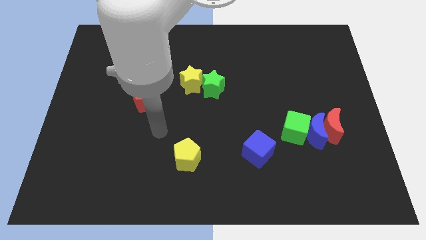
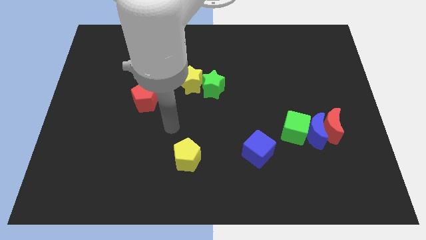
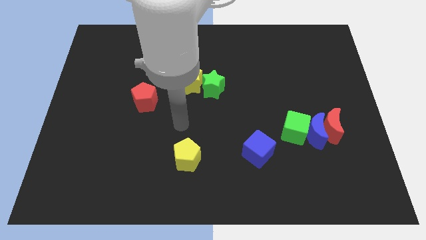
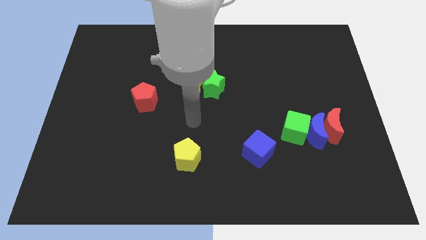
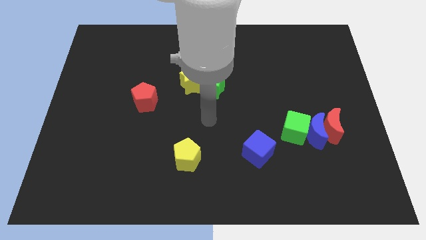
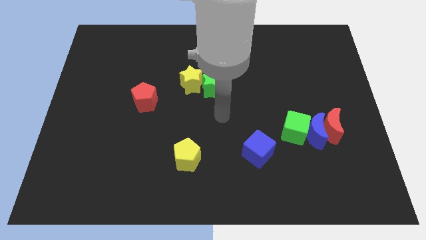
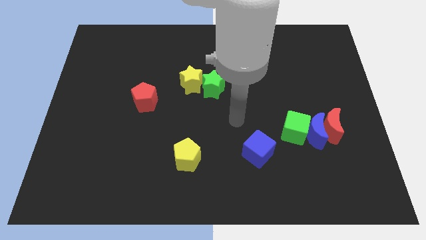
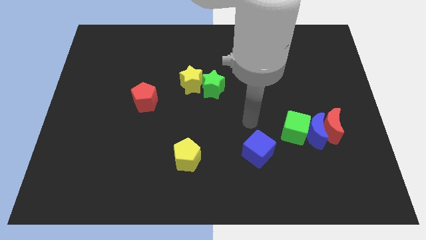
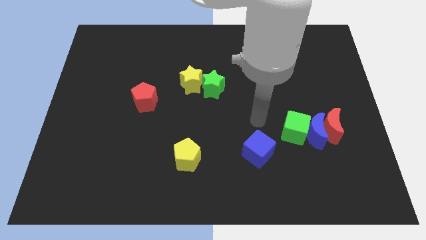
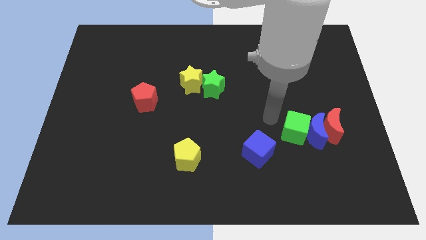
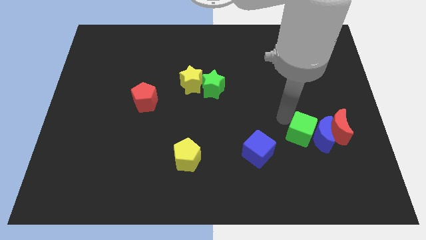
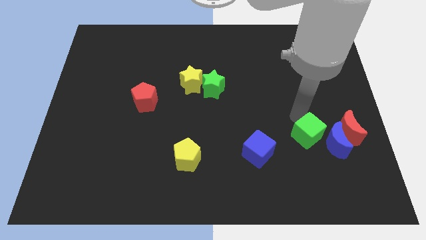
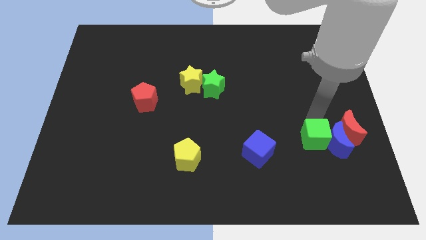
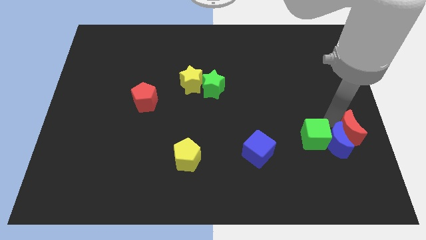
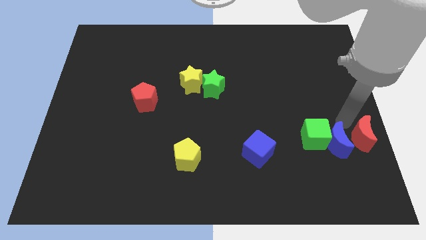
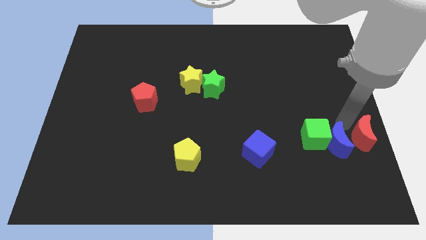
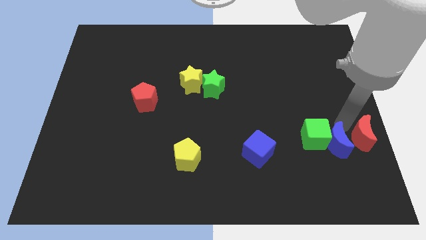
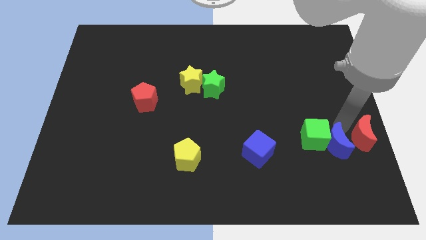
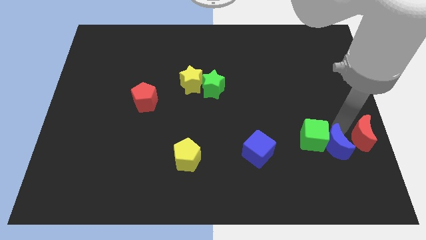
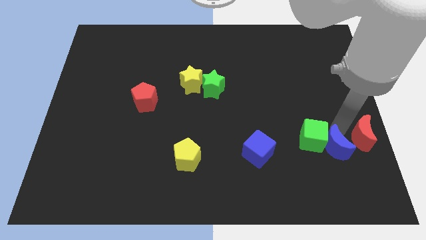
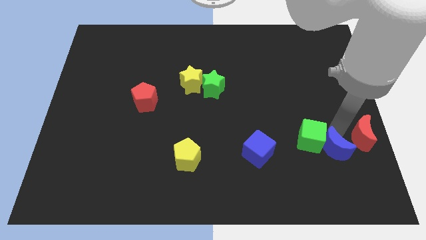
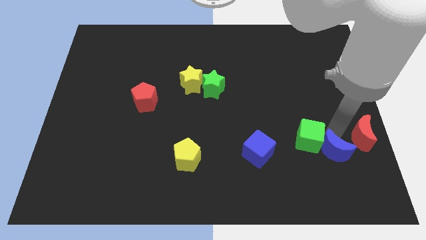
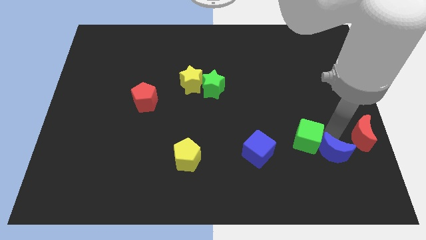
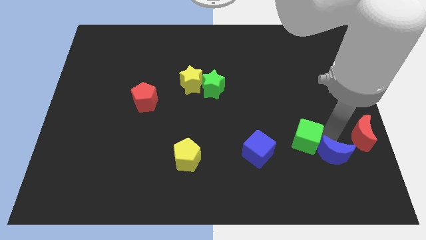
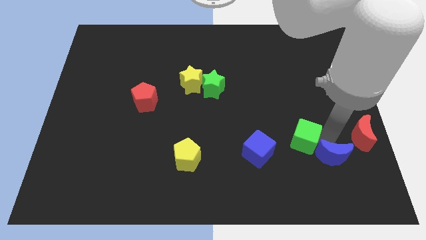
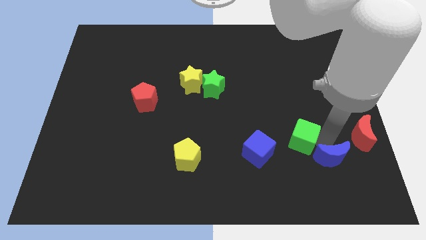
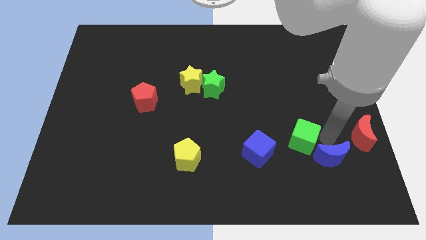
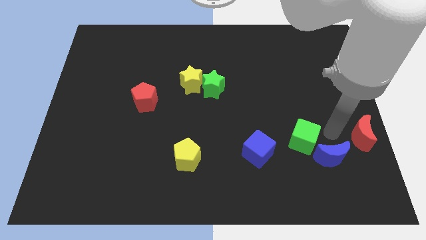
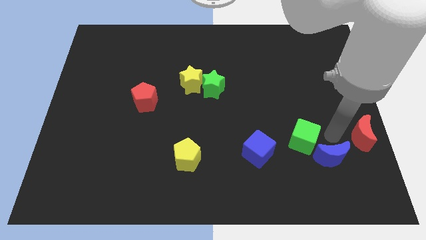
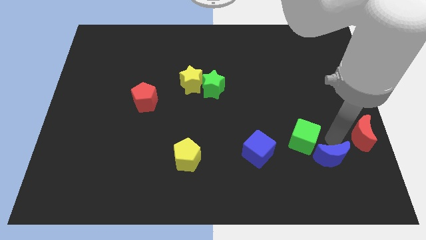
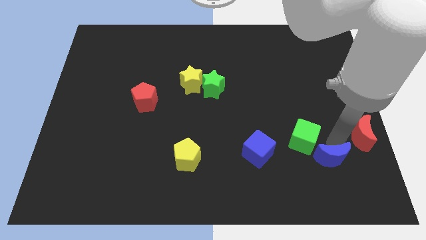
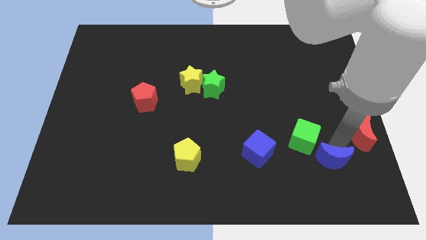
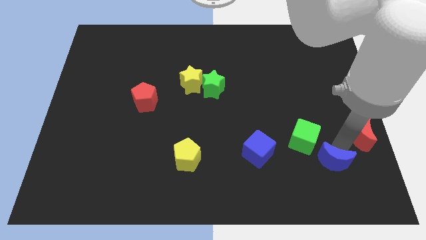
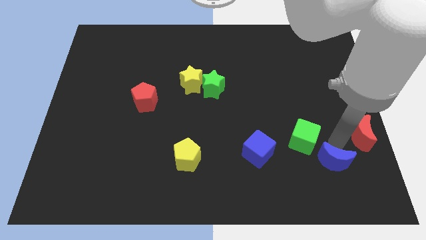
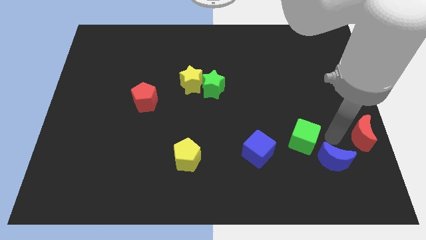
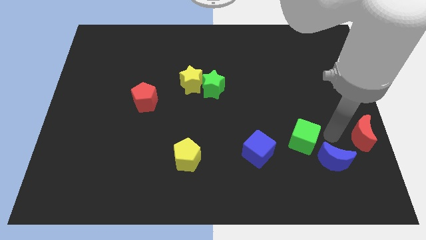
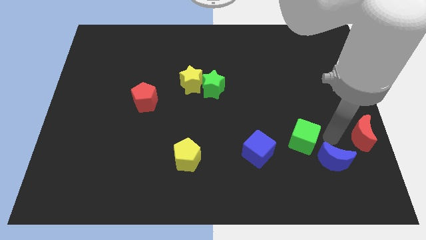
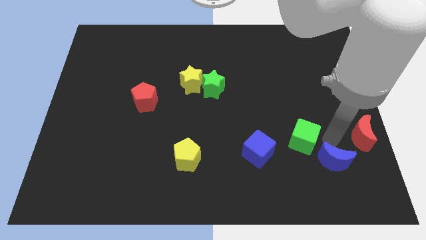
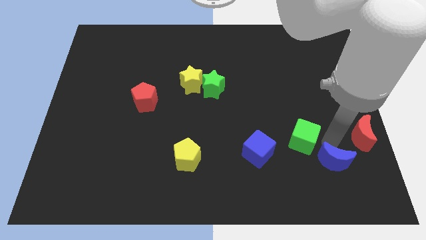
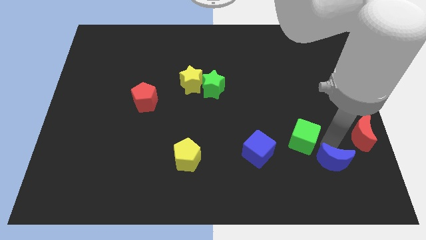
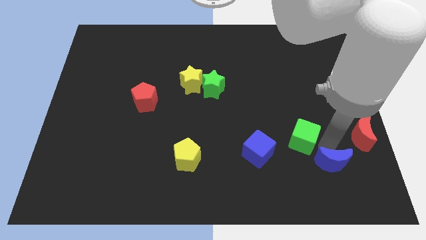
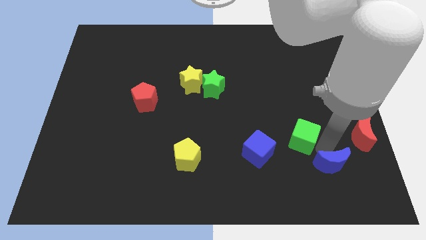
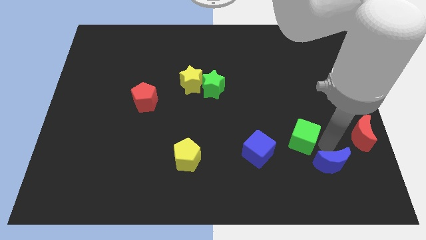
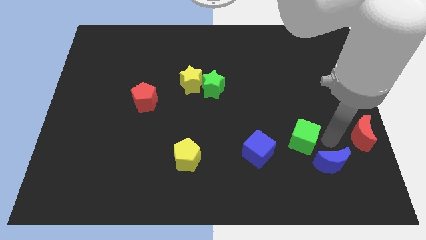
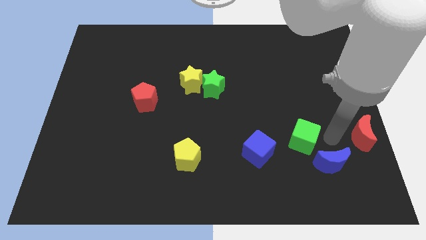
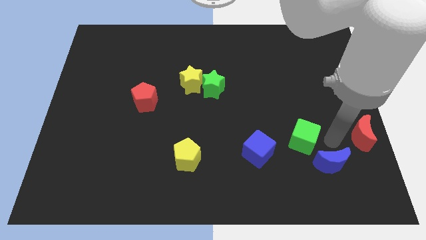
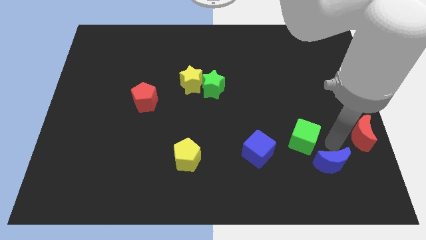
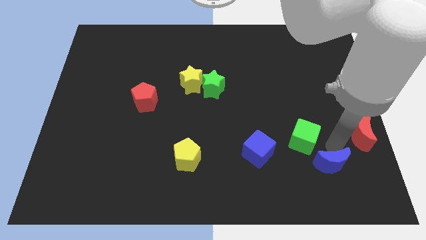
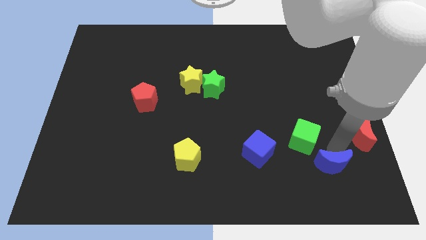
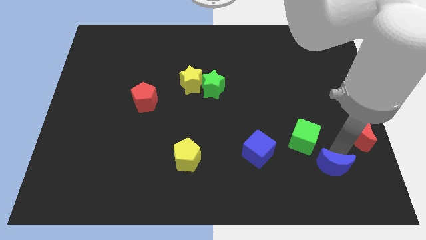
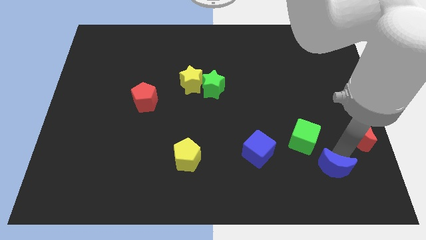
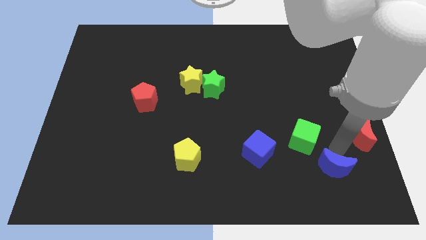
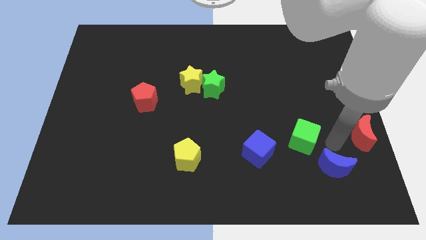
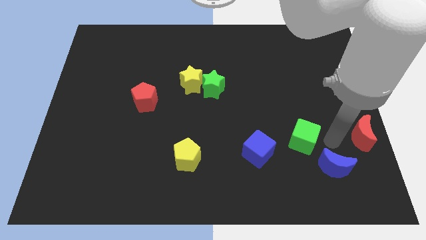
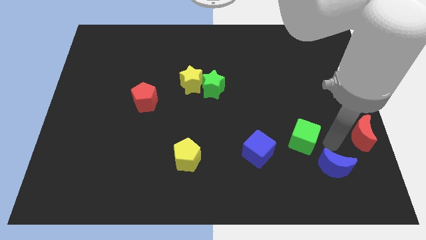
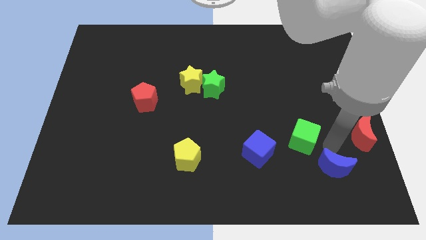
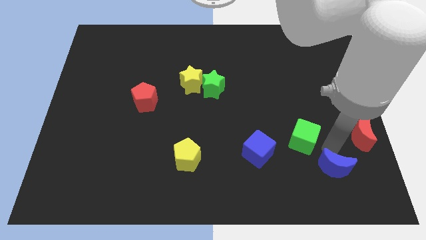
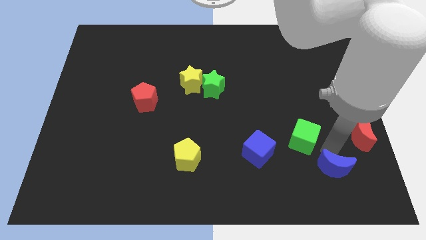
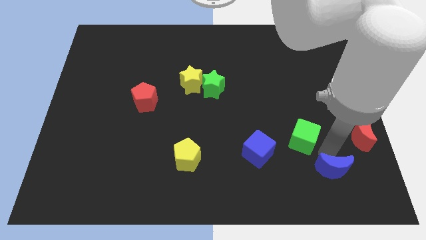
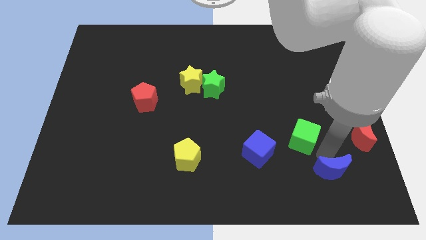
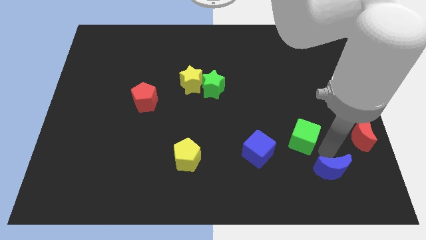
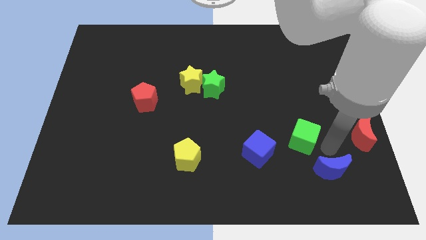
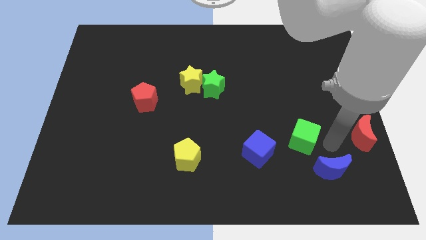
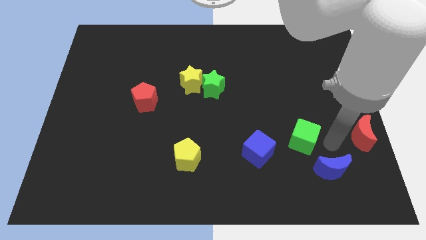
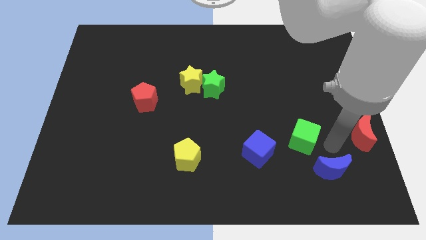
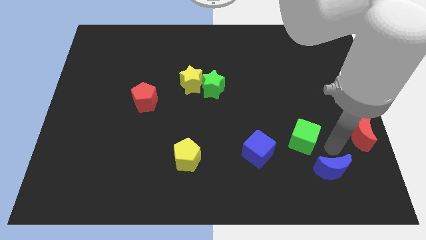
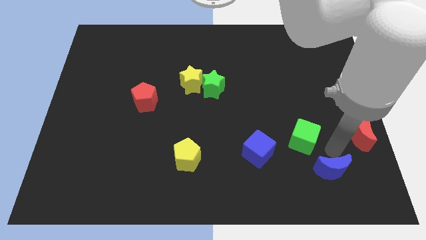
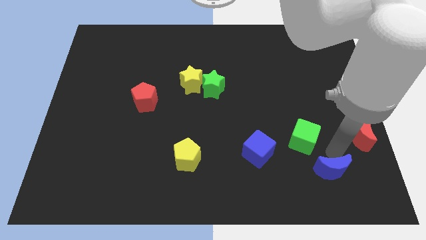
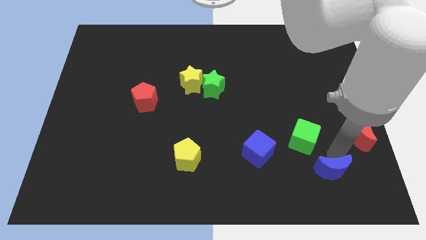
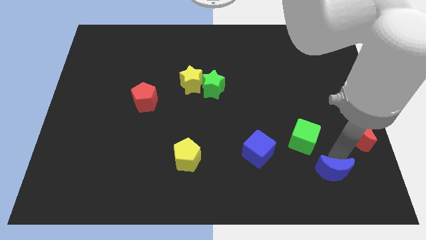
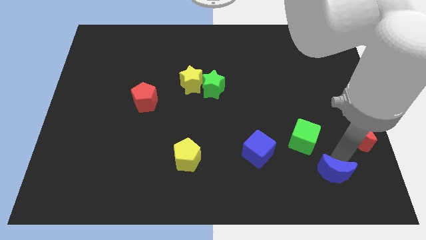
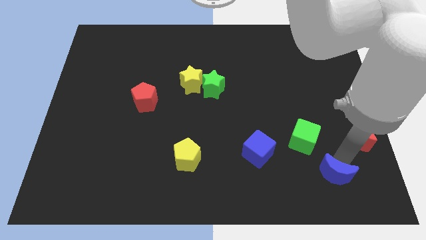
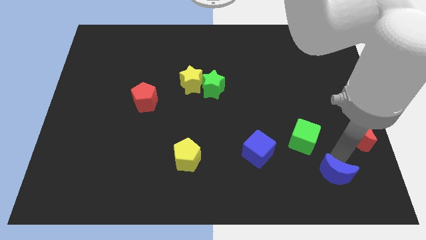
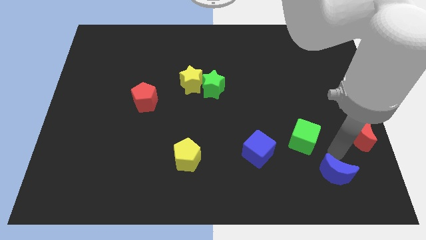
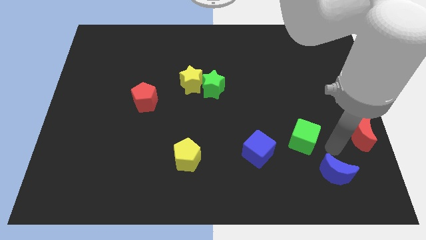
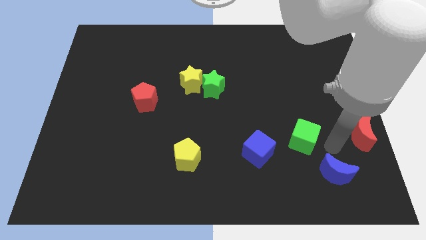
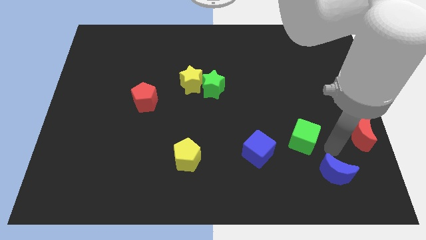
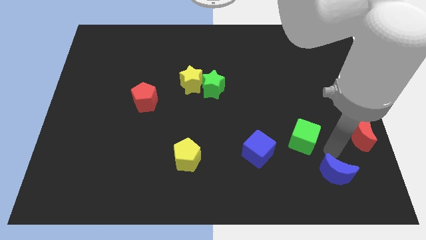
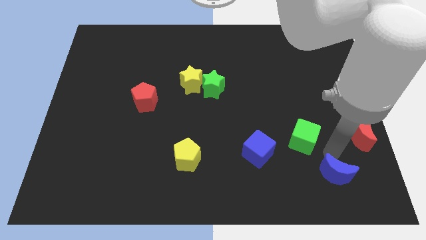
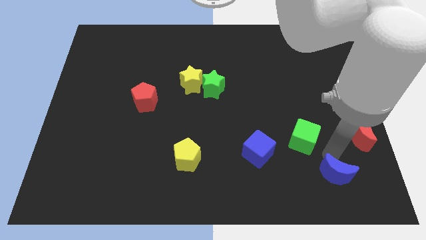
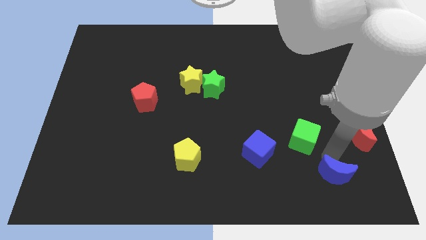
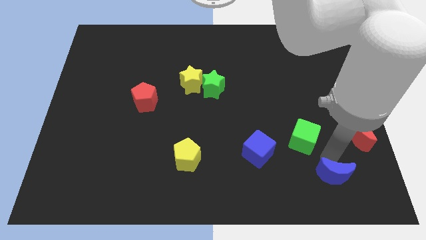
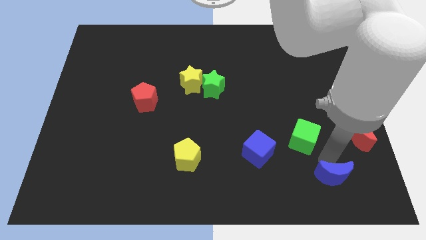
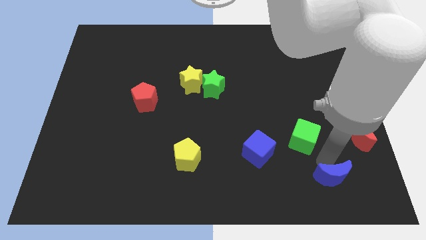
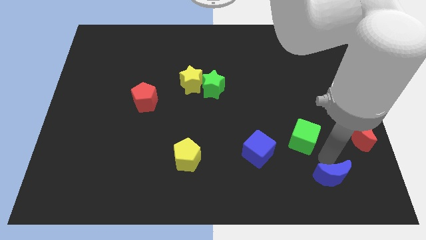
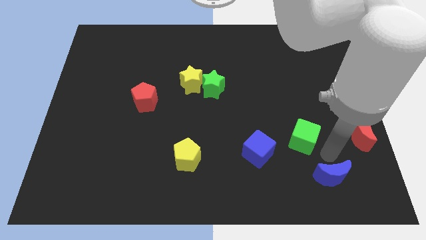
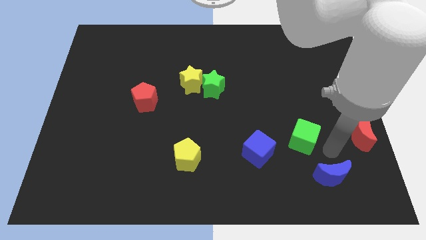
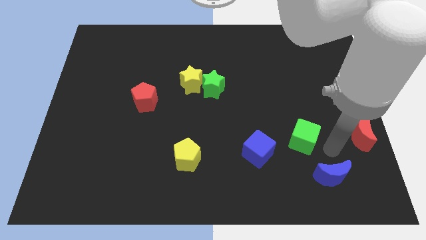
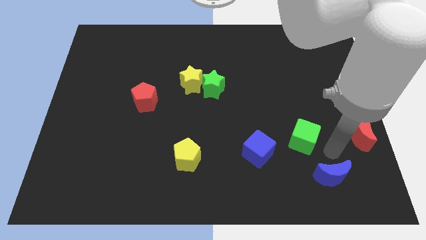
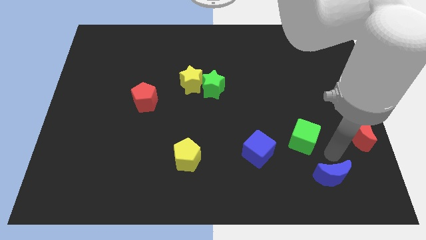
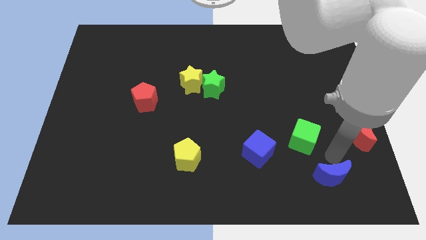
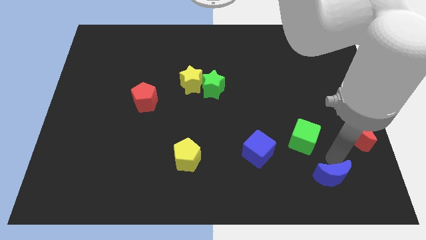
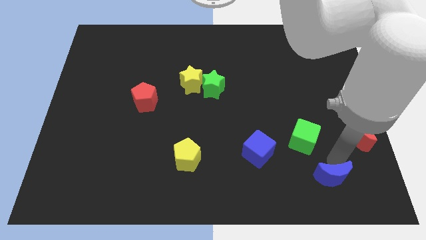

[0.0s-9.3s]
move the blue moon away from the red moon and green cube

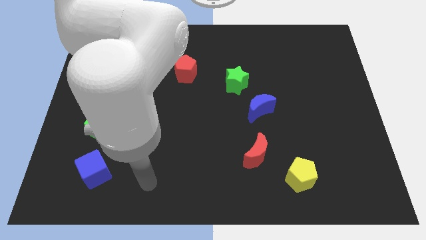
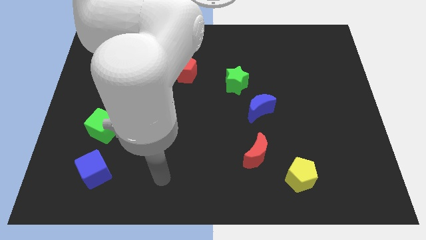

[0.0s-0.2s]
move the blue moon away from the green star
